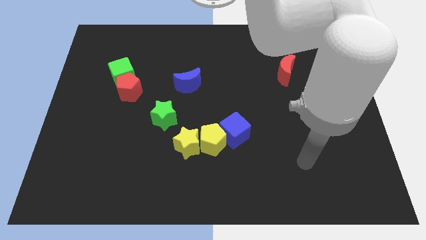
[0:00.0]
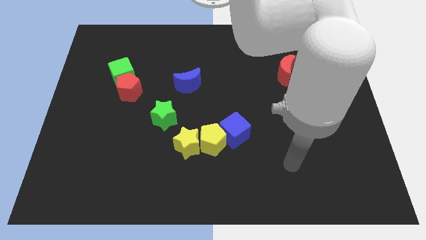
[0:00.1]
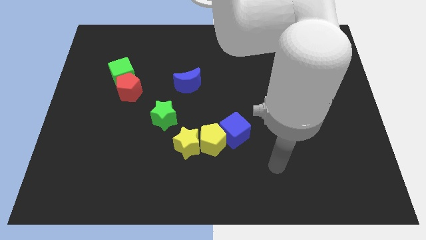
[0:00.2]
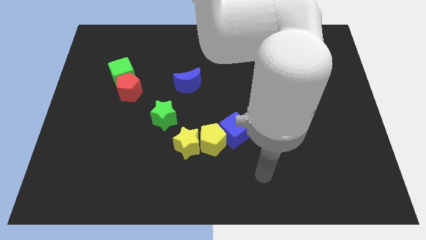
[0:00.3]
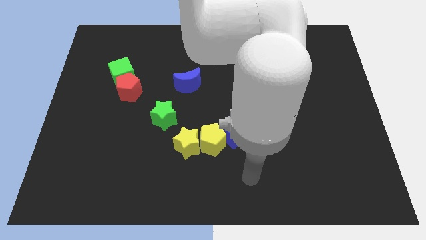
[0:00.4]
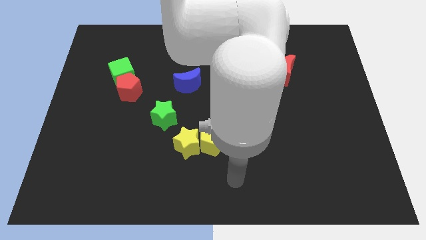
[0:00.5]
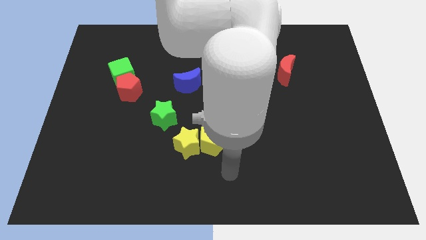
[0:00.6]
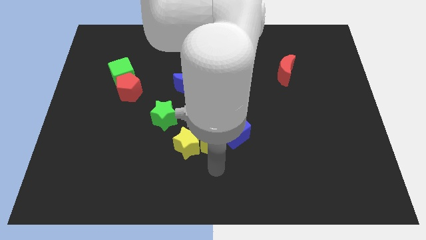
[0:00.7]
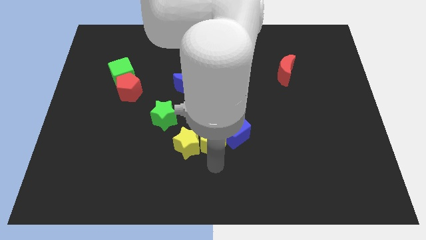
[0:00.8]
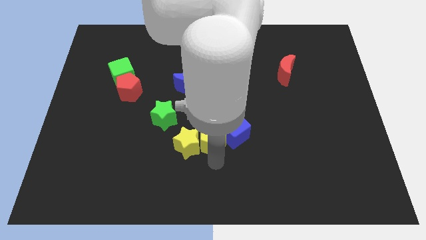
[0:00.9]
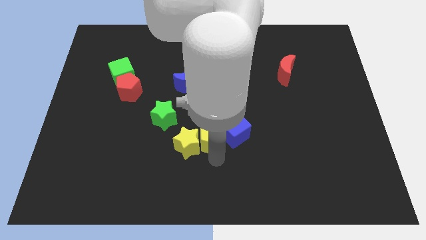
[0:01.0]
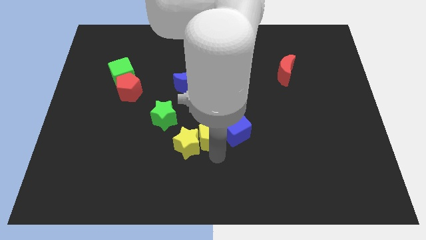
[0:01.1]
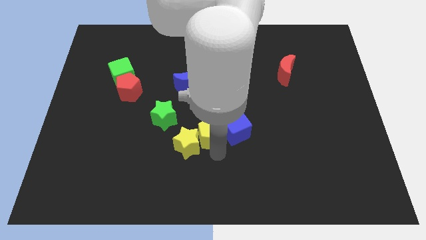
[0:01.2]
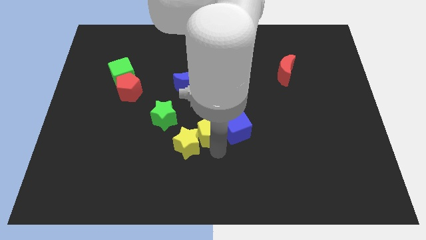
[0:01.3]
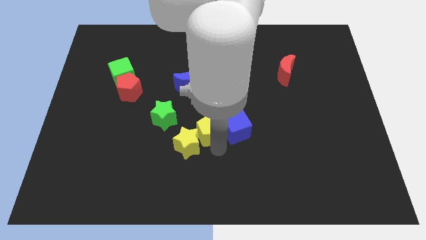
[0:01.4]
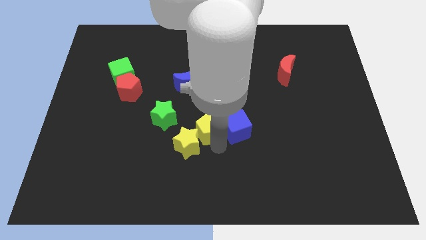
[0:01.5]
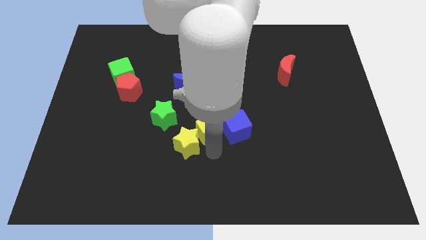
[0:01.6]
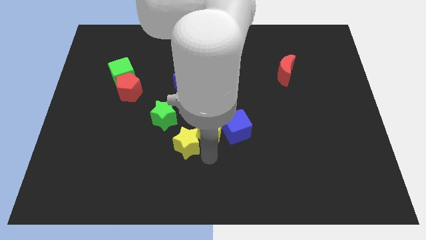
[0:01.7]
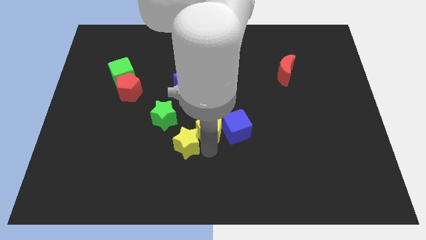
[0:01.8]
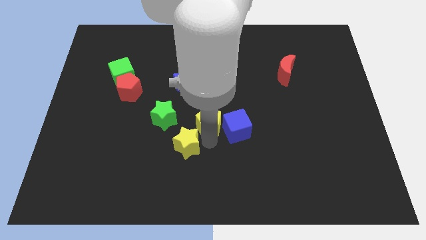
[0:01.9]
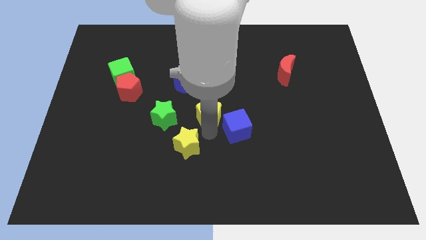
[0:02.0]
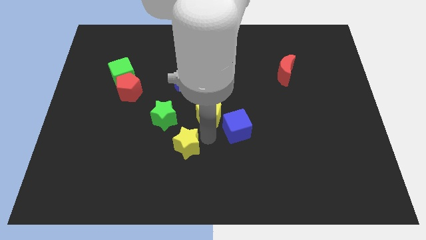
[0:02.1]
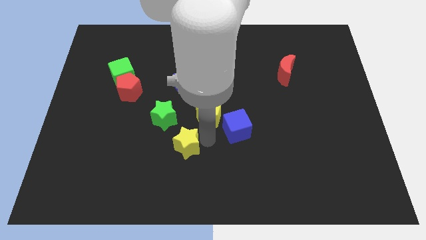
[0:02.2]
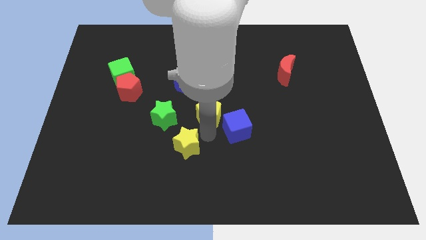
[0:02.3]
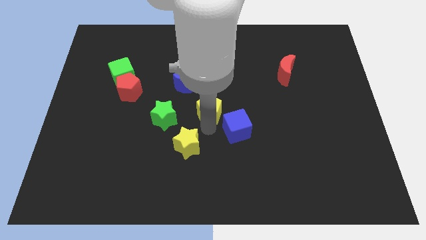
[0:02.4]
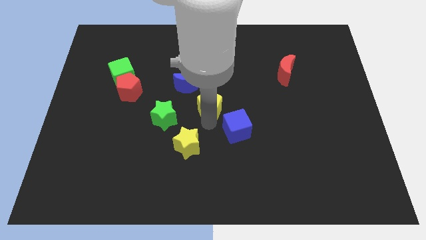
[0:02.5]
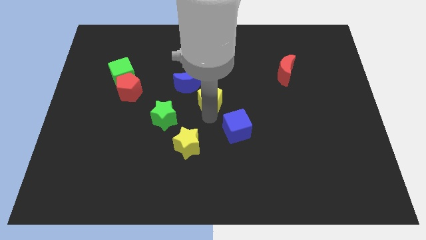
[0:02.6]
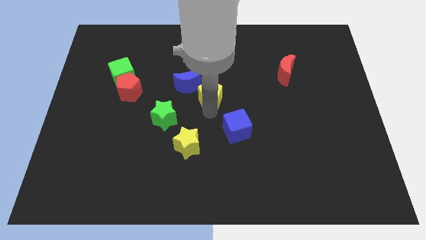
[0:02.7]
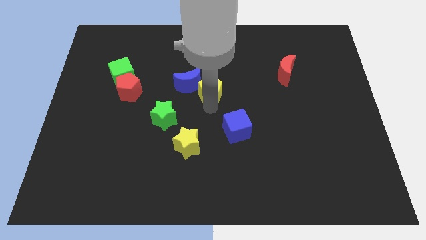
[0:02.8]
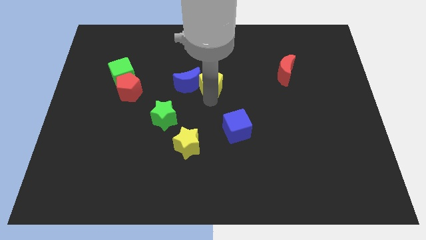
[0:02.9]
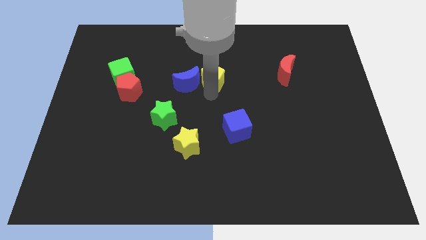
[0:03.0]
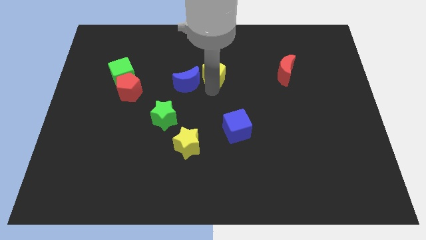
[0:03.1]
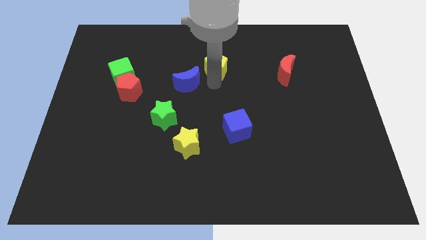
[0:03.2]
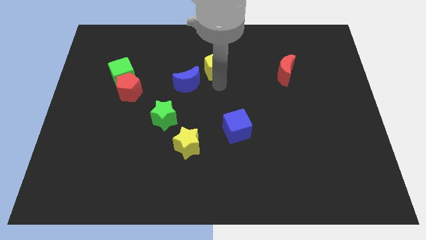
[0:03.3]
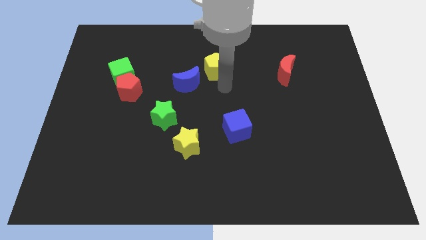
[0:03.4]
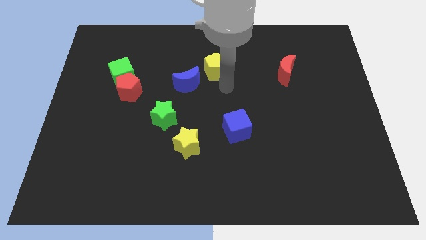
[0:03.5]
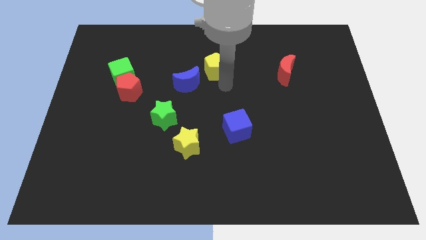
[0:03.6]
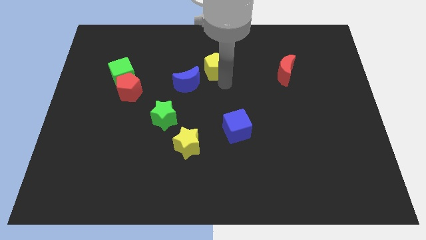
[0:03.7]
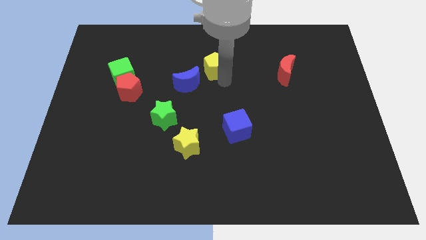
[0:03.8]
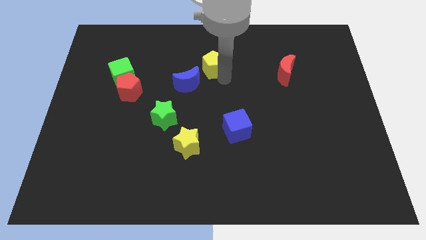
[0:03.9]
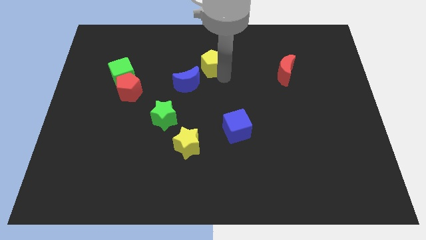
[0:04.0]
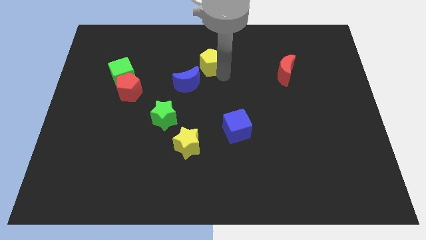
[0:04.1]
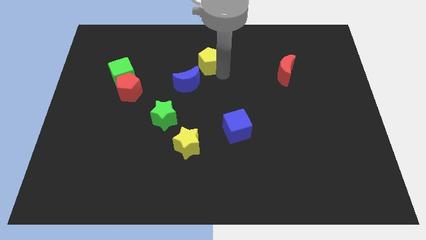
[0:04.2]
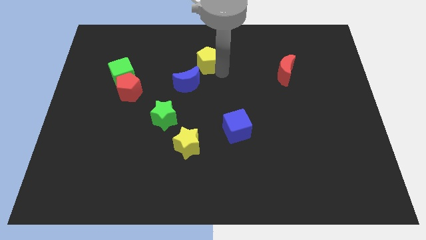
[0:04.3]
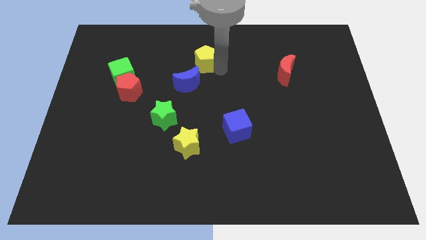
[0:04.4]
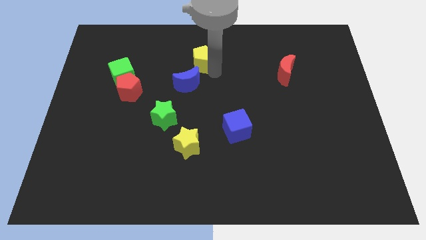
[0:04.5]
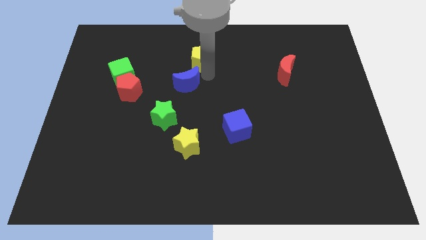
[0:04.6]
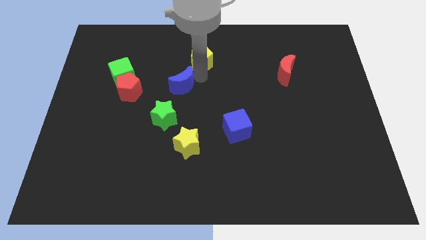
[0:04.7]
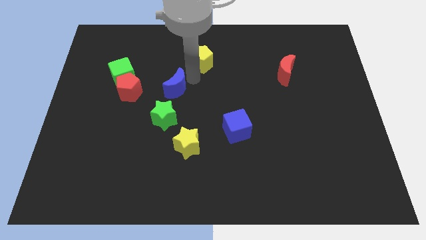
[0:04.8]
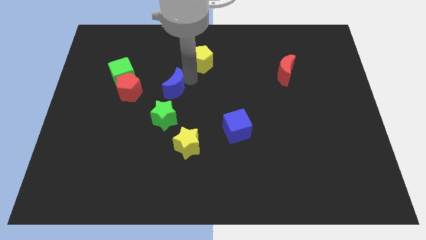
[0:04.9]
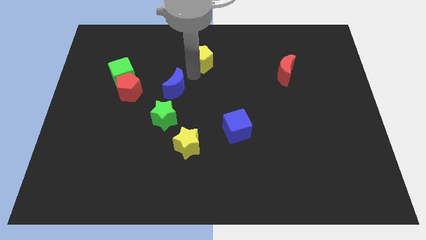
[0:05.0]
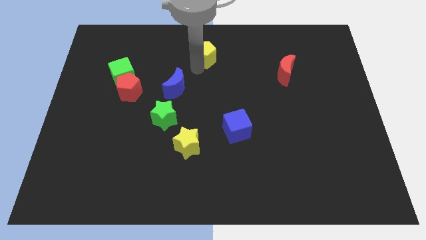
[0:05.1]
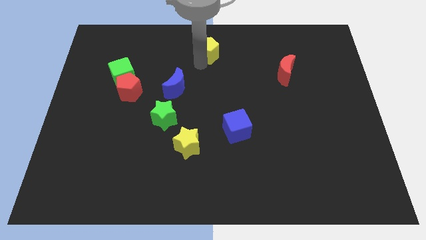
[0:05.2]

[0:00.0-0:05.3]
move the yellow pentagon to the top side
